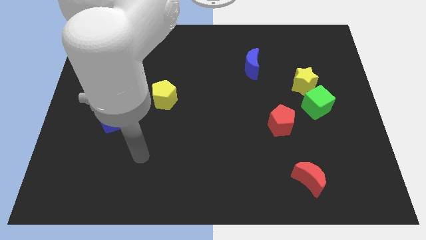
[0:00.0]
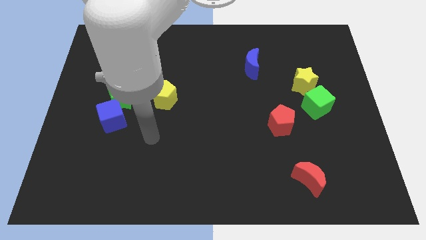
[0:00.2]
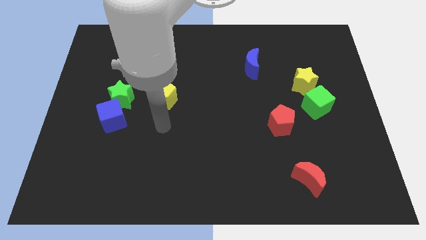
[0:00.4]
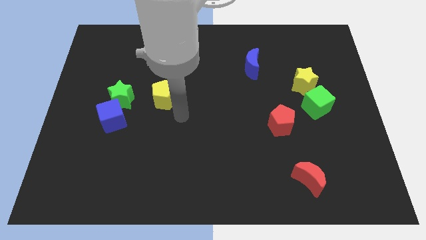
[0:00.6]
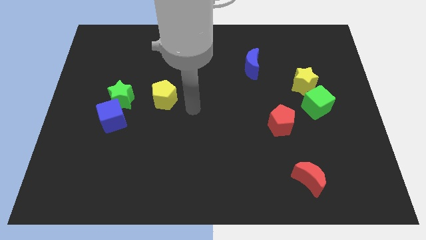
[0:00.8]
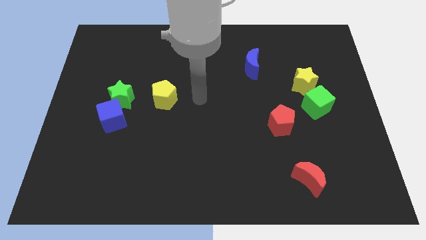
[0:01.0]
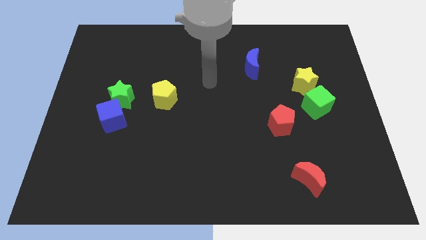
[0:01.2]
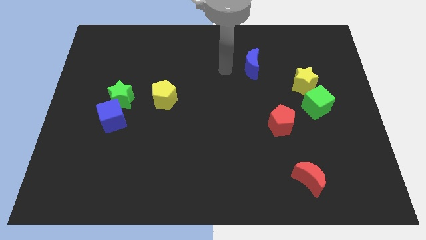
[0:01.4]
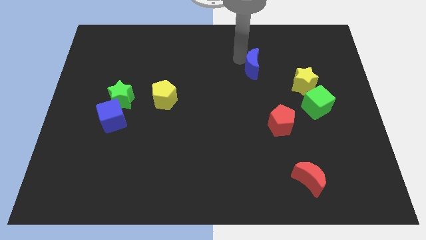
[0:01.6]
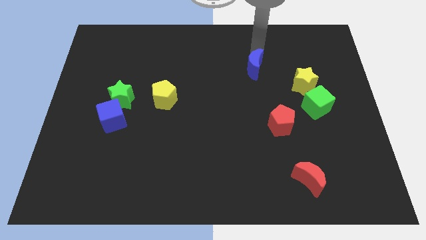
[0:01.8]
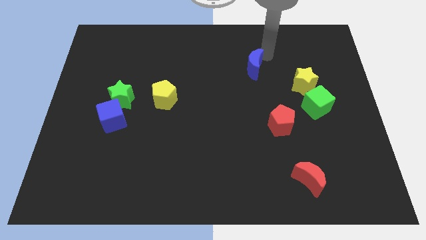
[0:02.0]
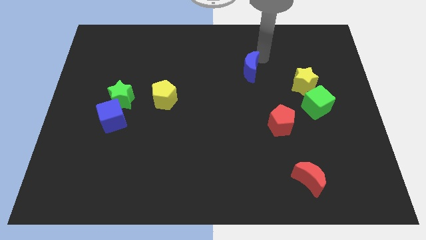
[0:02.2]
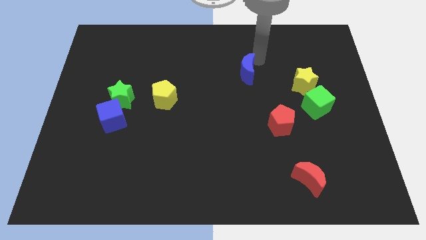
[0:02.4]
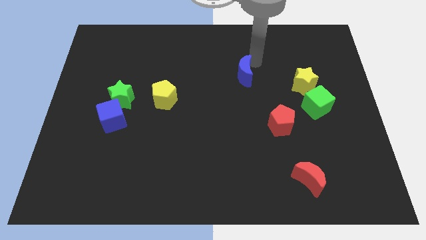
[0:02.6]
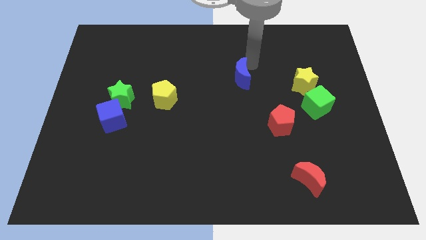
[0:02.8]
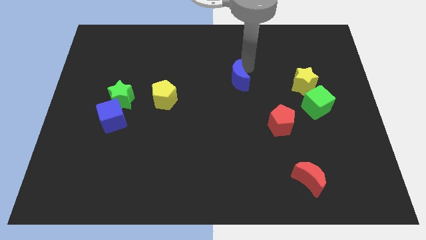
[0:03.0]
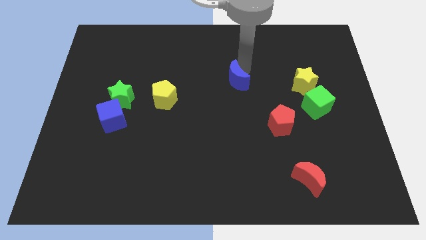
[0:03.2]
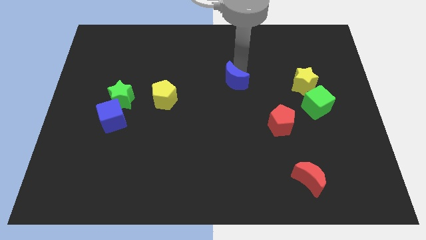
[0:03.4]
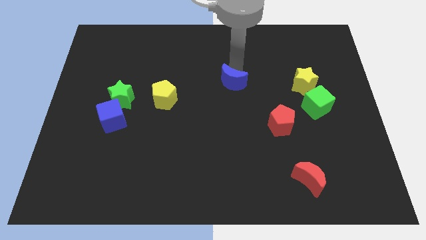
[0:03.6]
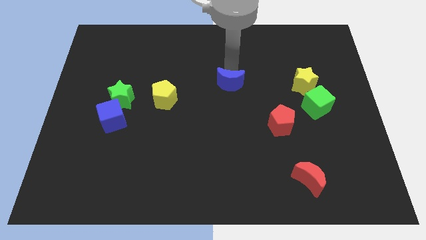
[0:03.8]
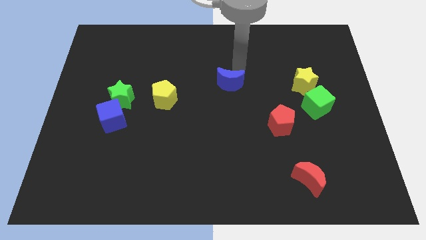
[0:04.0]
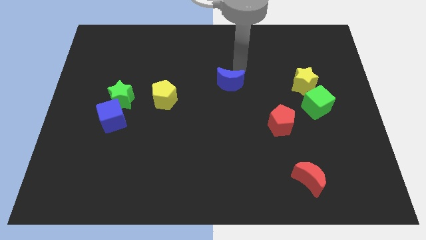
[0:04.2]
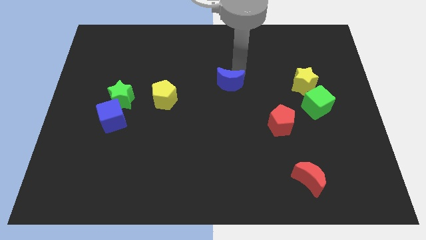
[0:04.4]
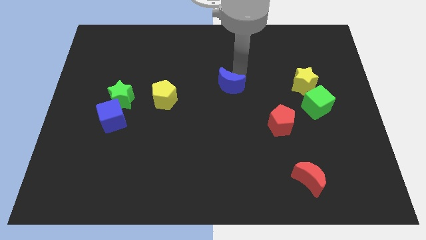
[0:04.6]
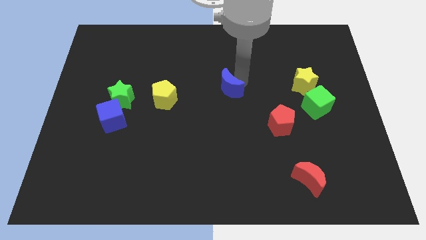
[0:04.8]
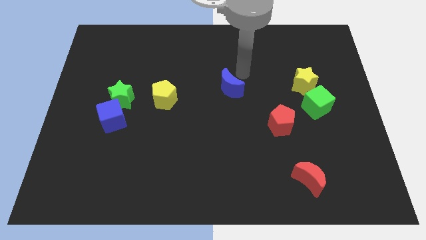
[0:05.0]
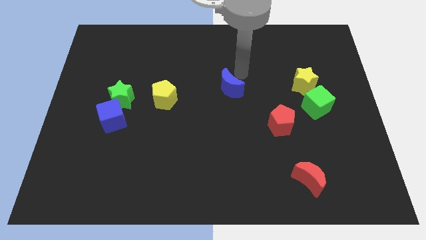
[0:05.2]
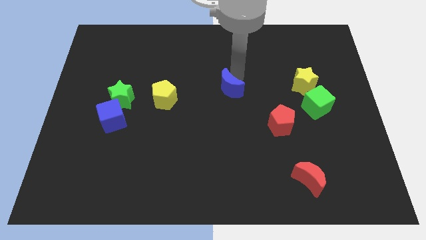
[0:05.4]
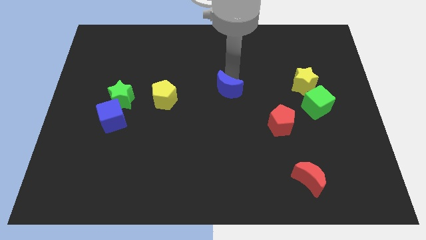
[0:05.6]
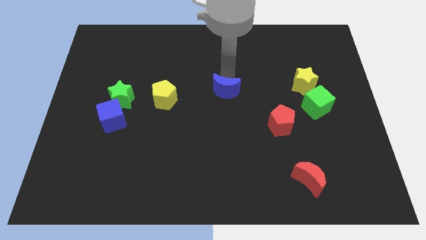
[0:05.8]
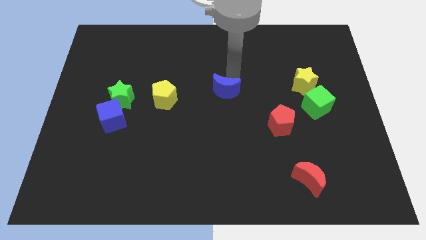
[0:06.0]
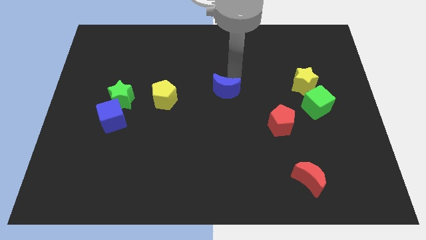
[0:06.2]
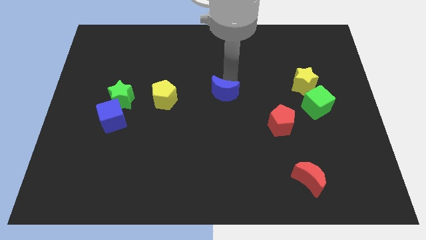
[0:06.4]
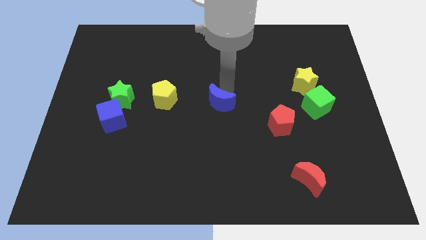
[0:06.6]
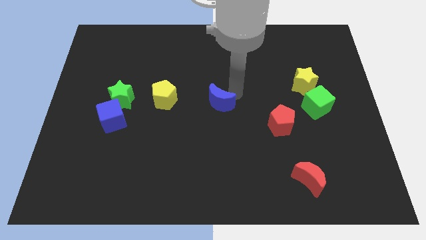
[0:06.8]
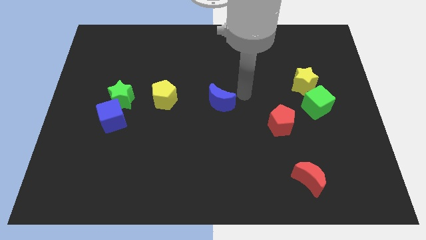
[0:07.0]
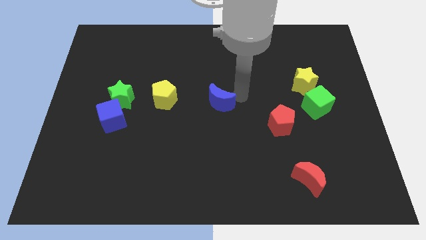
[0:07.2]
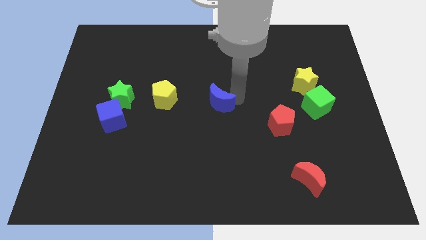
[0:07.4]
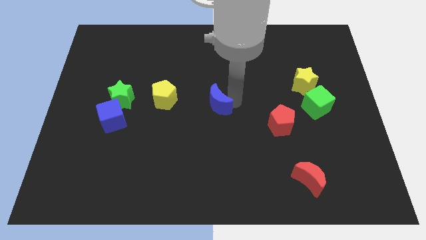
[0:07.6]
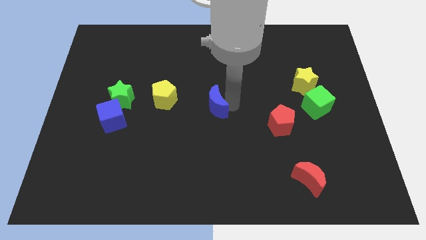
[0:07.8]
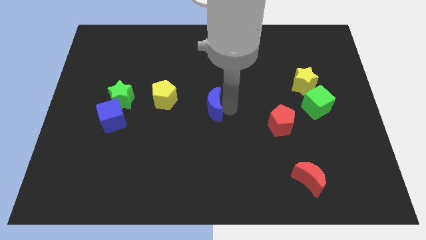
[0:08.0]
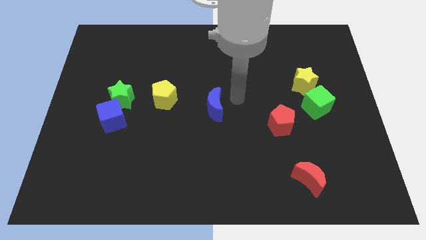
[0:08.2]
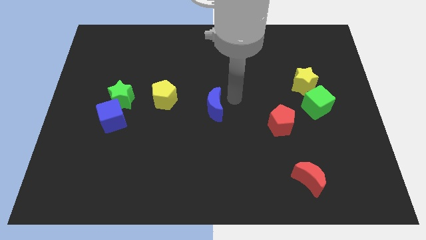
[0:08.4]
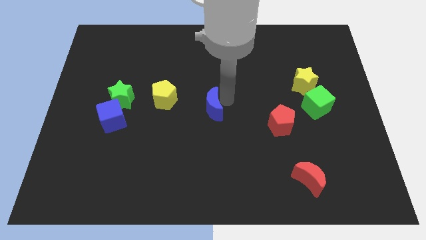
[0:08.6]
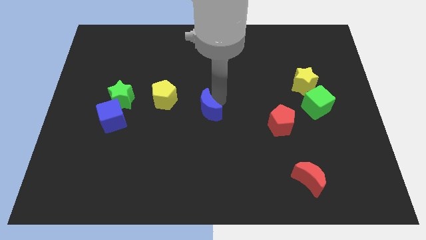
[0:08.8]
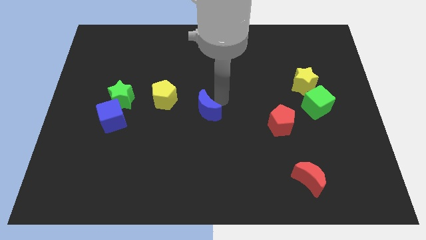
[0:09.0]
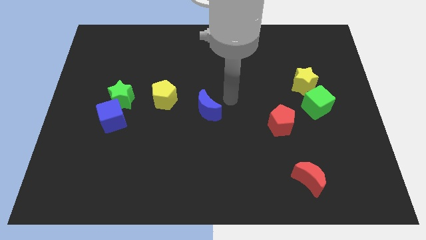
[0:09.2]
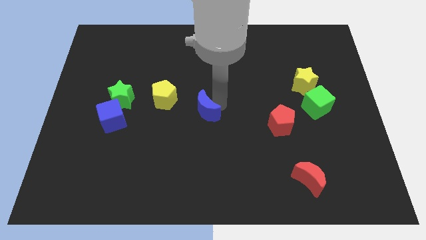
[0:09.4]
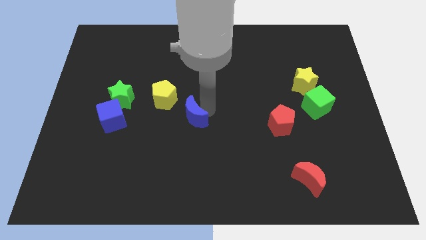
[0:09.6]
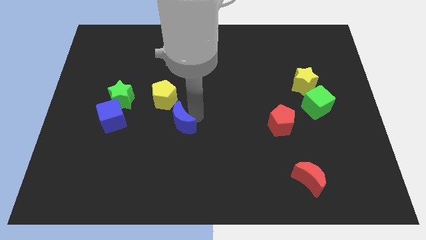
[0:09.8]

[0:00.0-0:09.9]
push the blue moon below the yellow pentagon

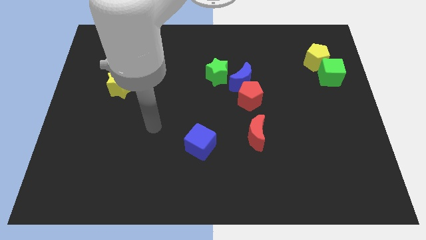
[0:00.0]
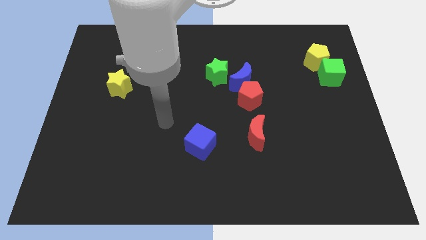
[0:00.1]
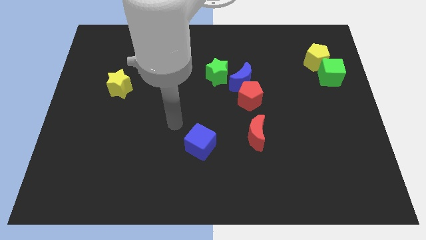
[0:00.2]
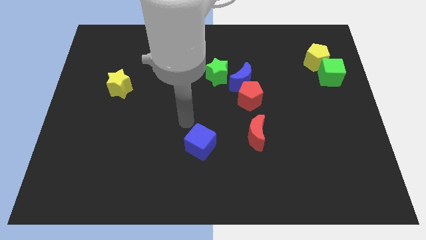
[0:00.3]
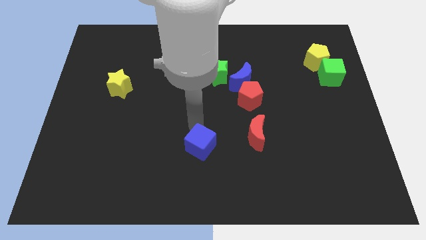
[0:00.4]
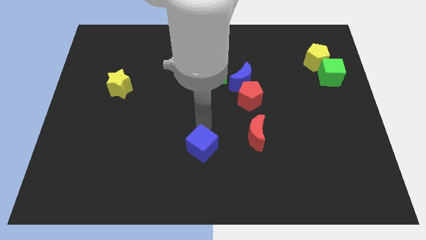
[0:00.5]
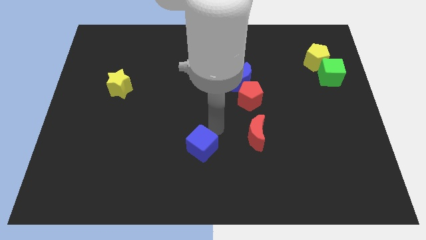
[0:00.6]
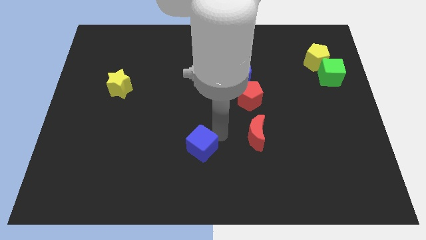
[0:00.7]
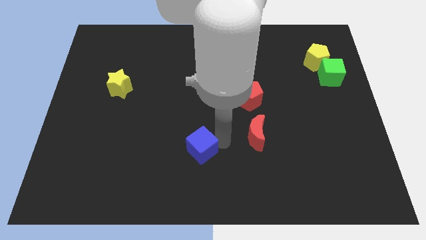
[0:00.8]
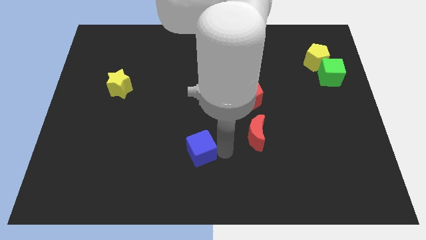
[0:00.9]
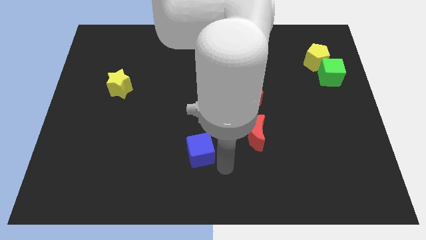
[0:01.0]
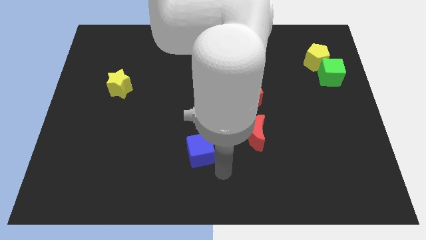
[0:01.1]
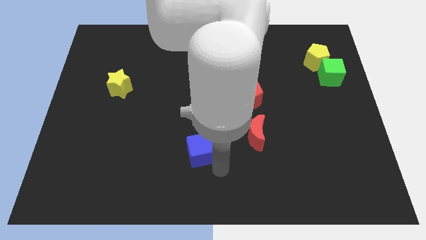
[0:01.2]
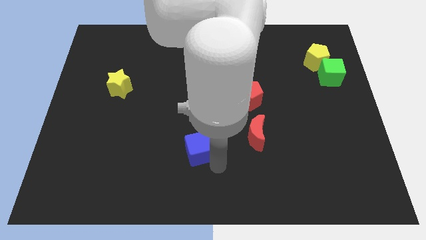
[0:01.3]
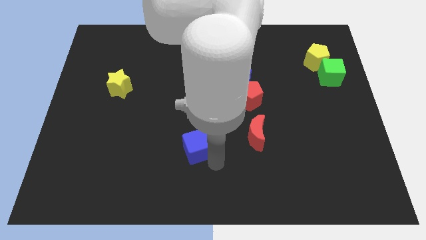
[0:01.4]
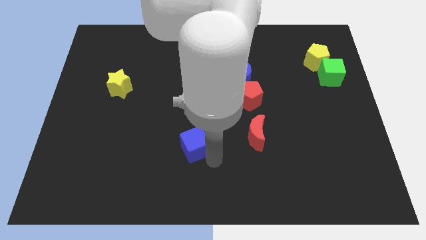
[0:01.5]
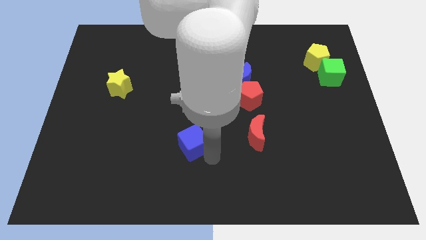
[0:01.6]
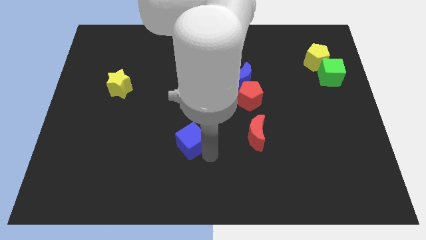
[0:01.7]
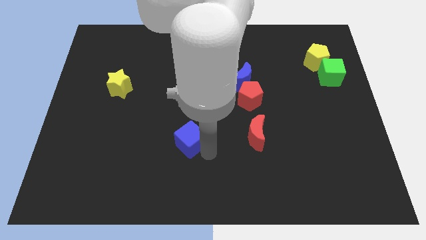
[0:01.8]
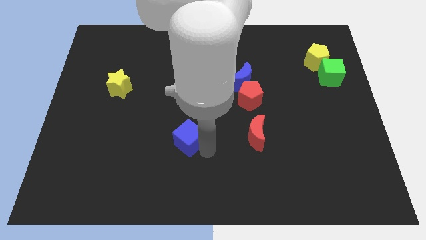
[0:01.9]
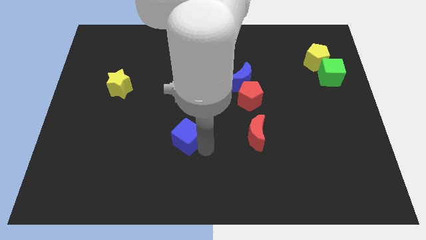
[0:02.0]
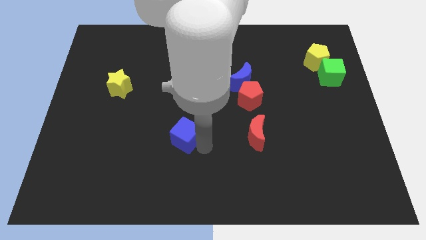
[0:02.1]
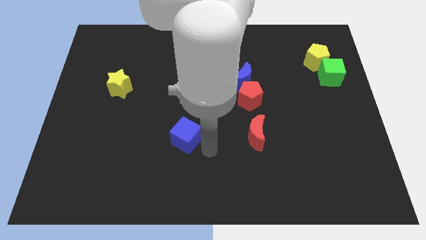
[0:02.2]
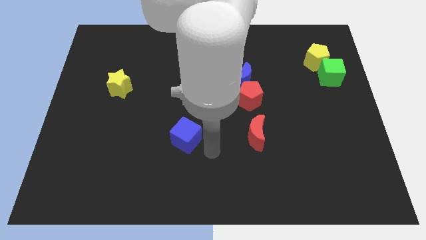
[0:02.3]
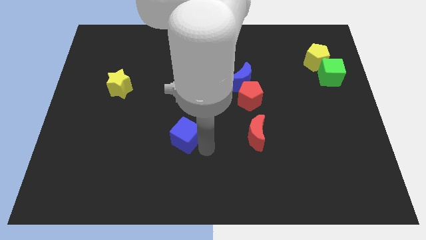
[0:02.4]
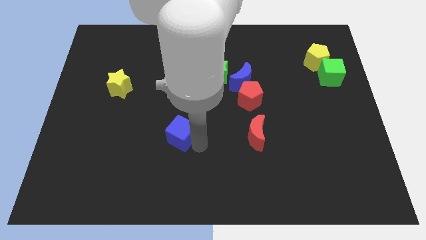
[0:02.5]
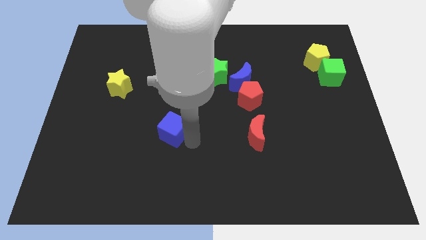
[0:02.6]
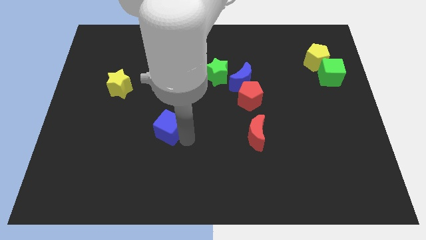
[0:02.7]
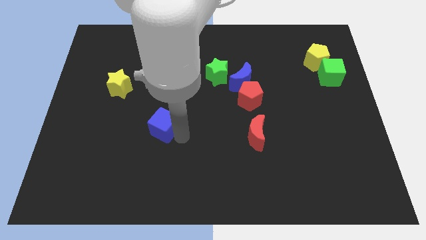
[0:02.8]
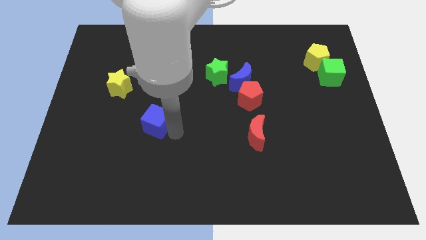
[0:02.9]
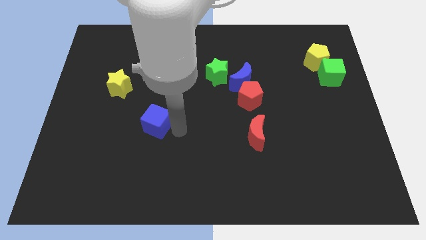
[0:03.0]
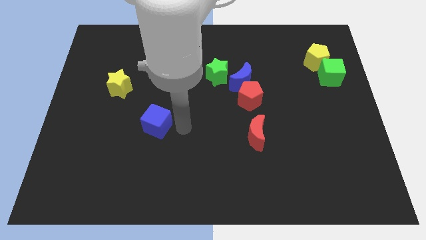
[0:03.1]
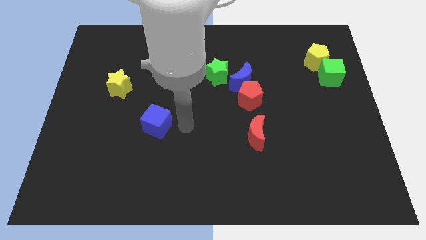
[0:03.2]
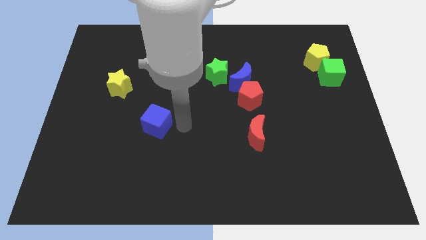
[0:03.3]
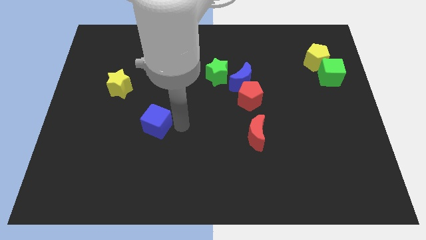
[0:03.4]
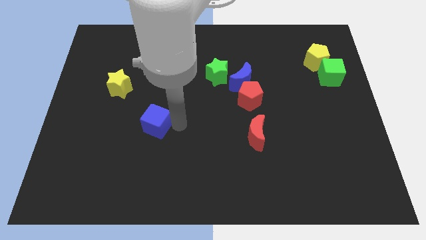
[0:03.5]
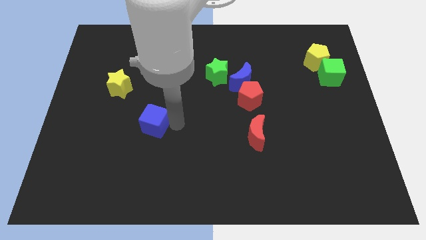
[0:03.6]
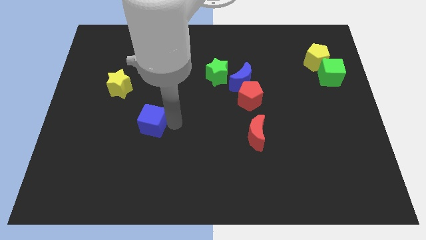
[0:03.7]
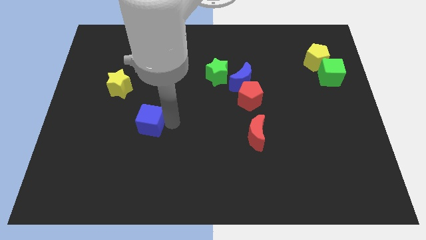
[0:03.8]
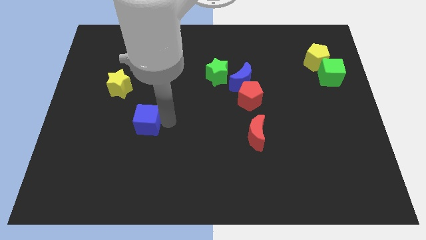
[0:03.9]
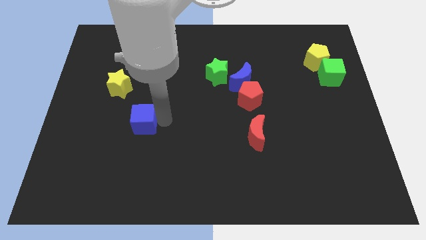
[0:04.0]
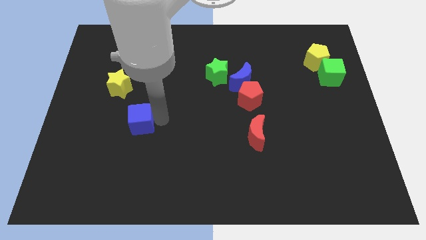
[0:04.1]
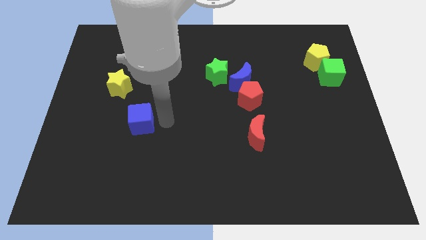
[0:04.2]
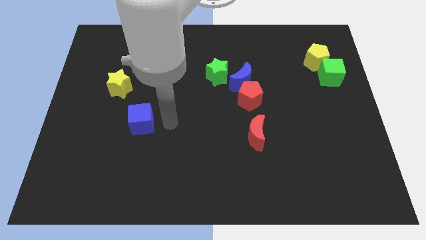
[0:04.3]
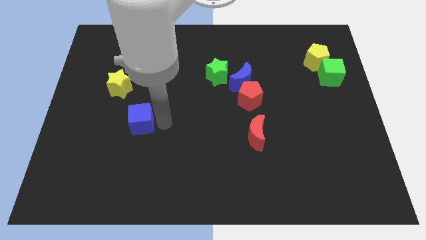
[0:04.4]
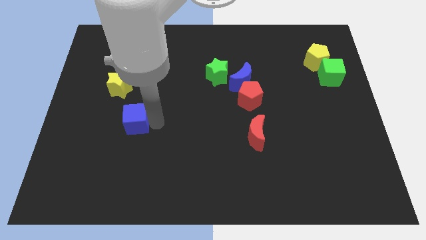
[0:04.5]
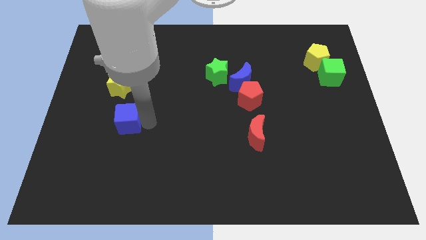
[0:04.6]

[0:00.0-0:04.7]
push the blue cube below the yellow star
